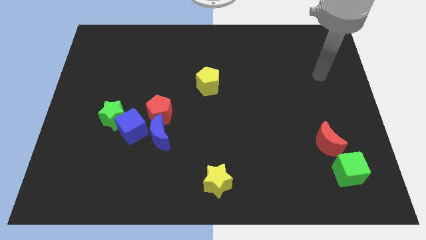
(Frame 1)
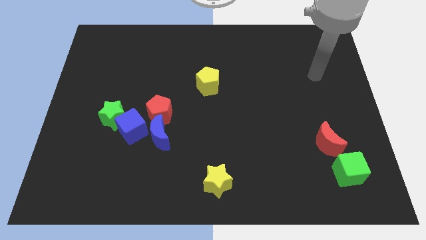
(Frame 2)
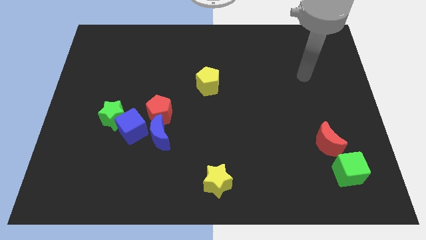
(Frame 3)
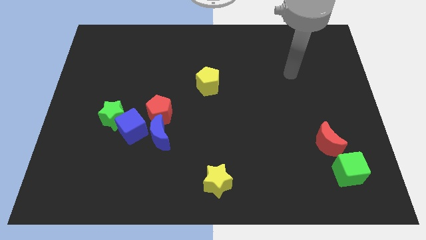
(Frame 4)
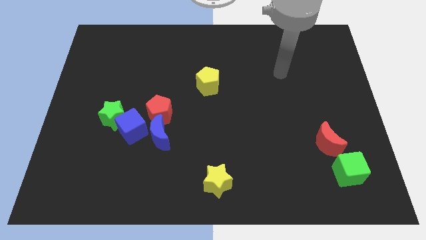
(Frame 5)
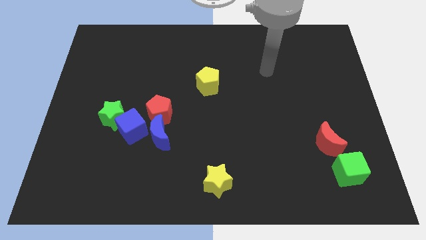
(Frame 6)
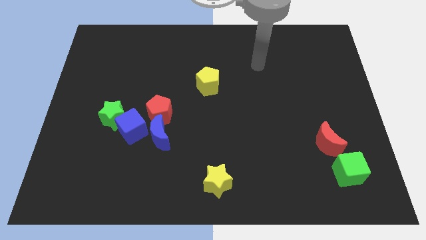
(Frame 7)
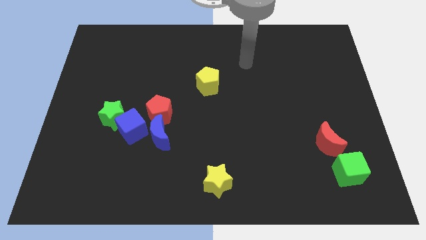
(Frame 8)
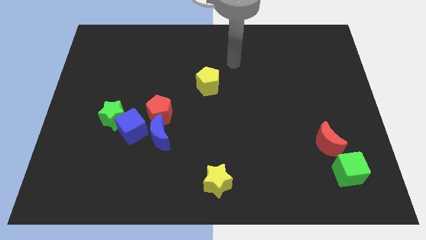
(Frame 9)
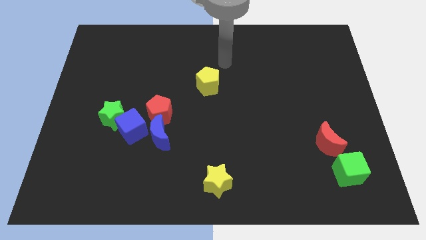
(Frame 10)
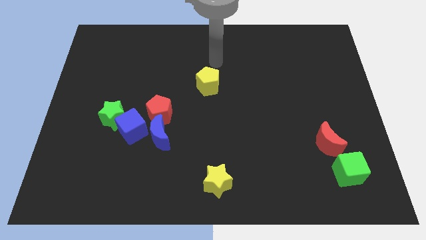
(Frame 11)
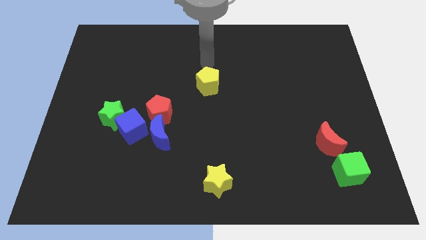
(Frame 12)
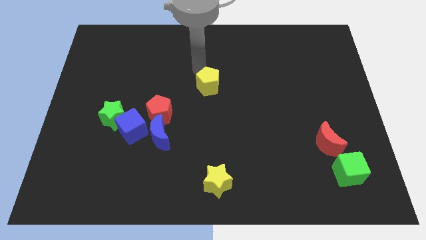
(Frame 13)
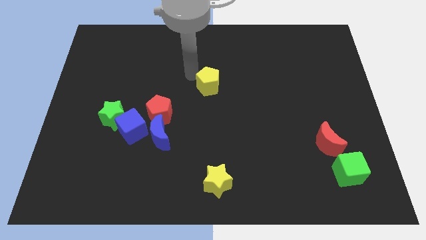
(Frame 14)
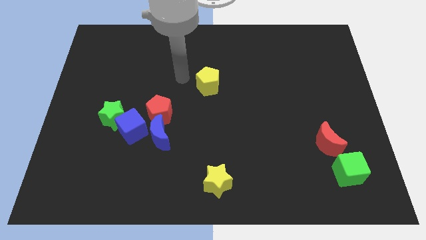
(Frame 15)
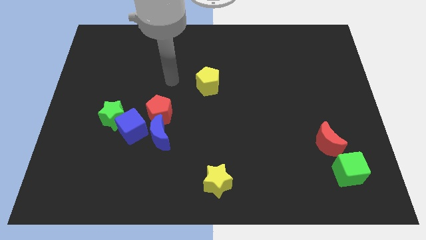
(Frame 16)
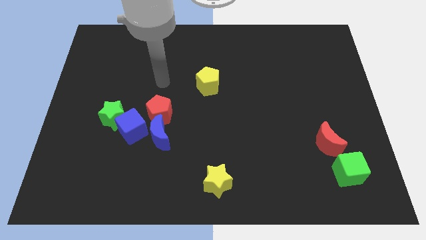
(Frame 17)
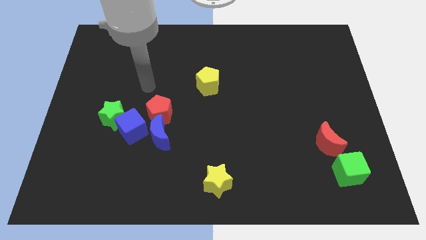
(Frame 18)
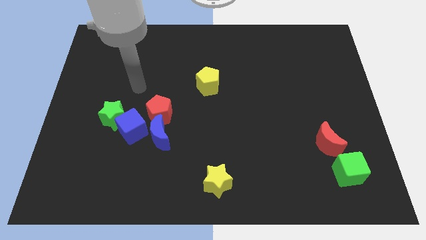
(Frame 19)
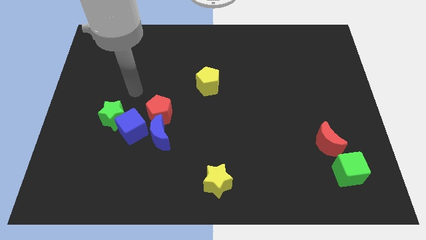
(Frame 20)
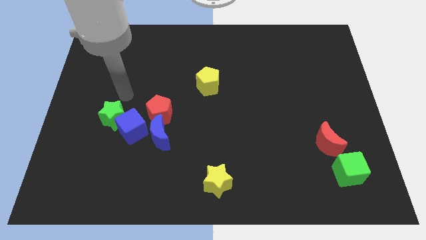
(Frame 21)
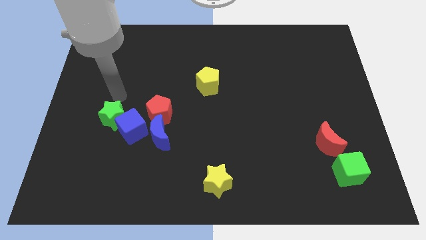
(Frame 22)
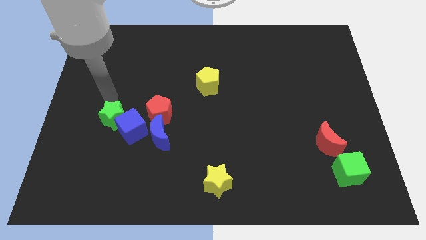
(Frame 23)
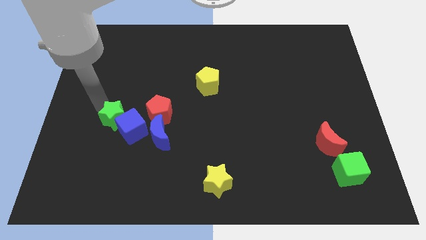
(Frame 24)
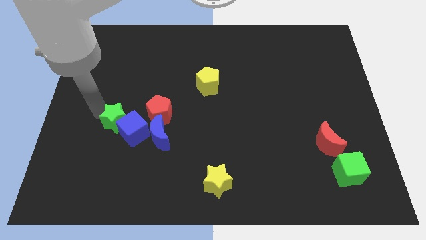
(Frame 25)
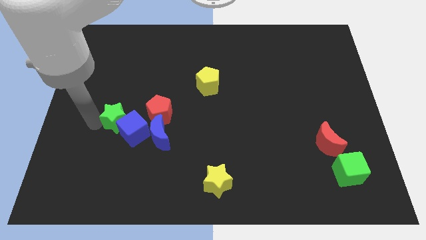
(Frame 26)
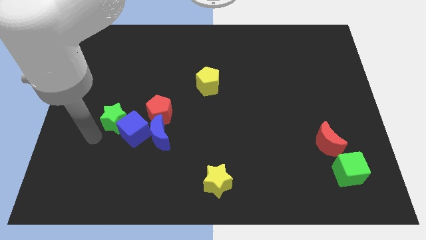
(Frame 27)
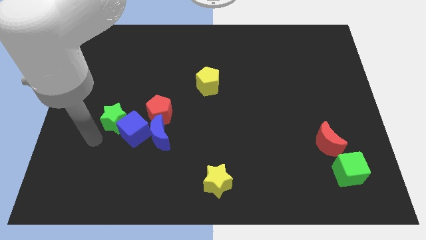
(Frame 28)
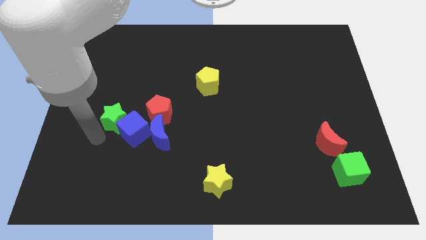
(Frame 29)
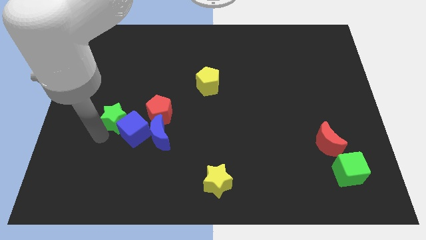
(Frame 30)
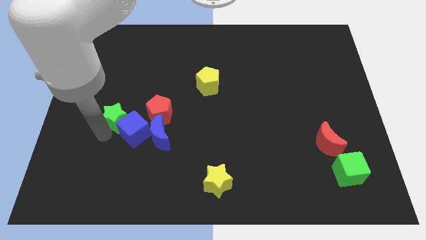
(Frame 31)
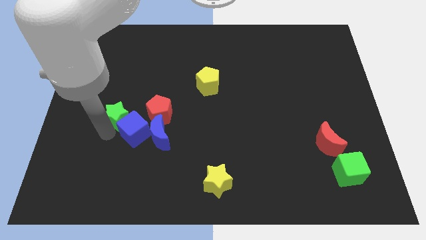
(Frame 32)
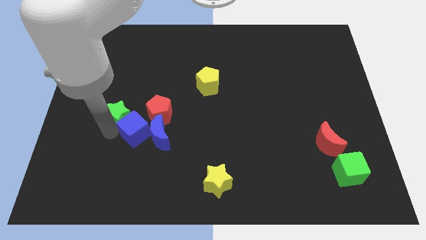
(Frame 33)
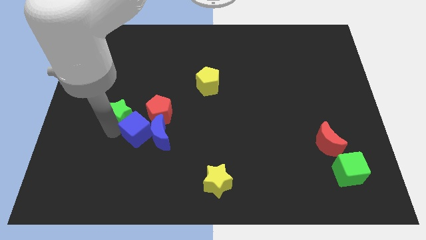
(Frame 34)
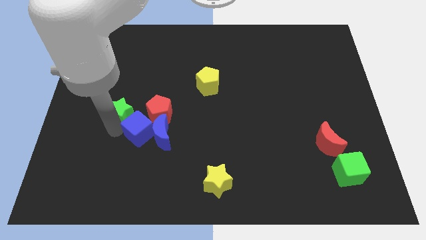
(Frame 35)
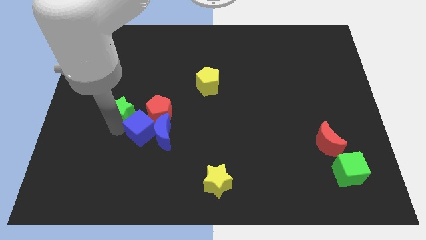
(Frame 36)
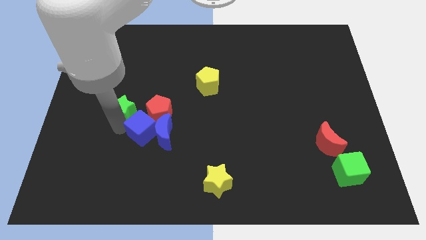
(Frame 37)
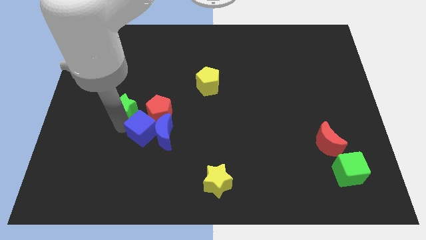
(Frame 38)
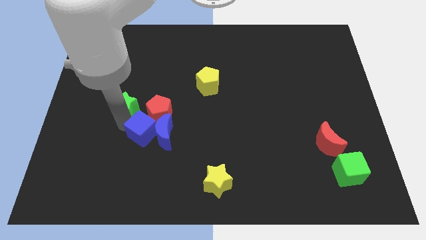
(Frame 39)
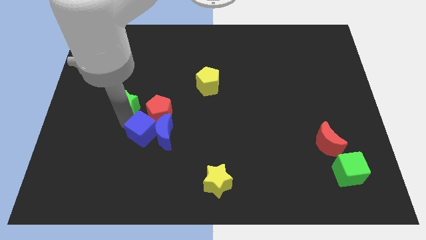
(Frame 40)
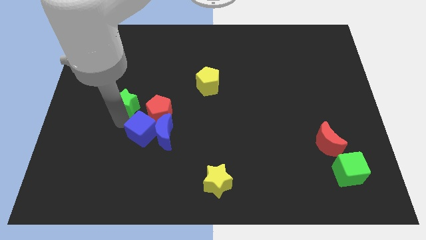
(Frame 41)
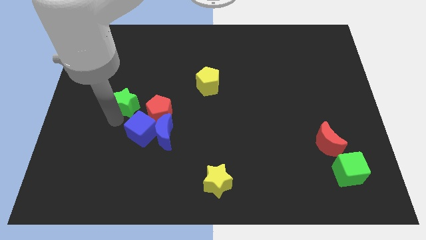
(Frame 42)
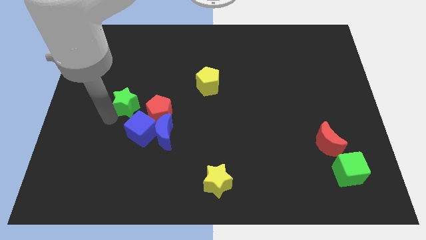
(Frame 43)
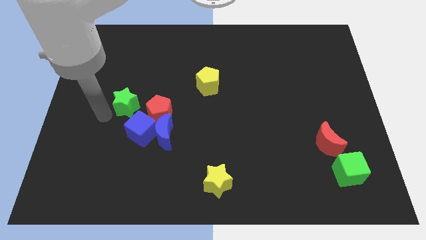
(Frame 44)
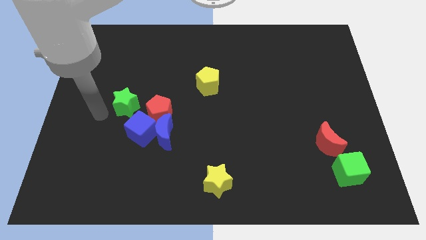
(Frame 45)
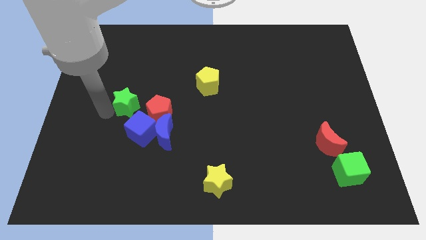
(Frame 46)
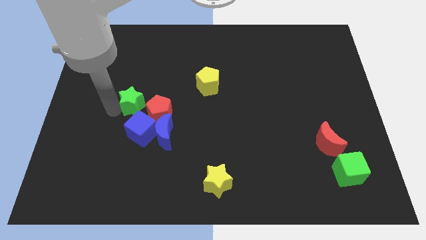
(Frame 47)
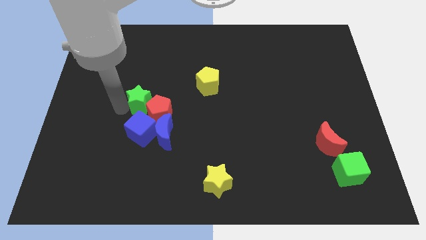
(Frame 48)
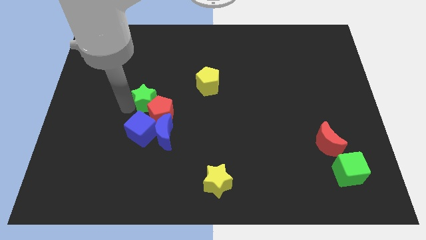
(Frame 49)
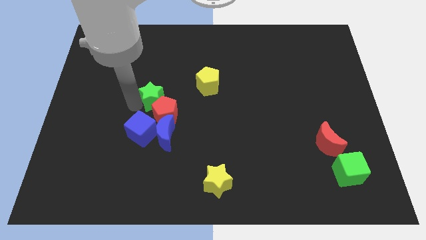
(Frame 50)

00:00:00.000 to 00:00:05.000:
slightly push the green star to the right

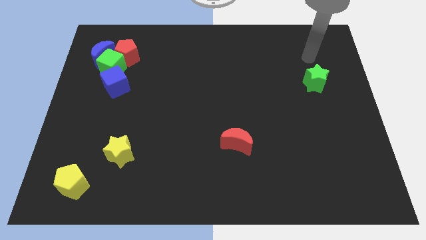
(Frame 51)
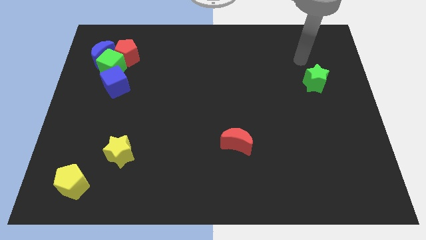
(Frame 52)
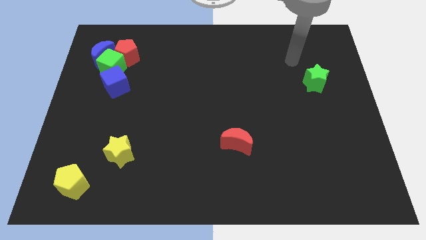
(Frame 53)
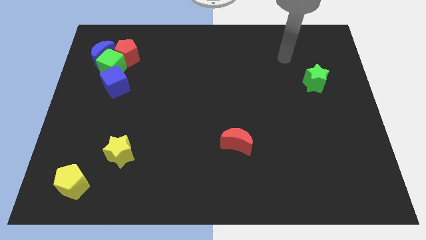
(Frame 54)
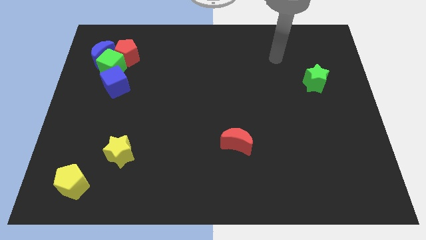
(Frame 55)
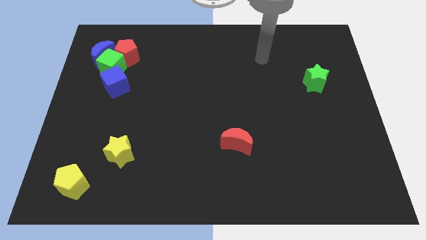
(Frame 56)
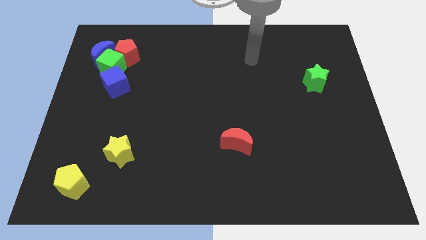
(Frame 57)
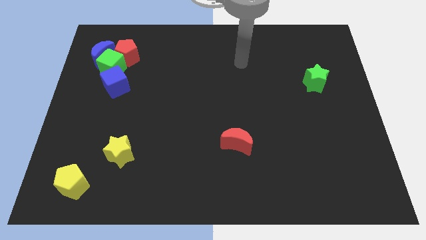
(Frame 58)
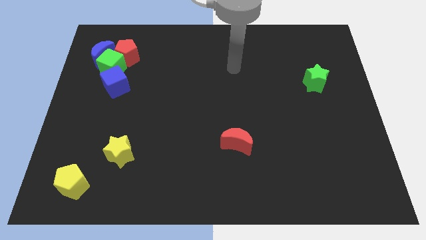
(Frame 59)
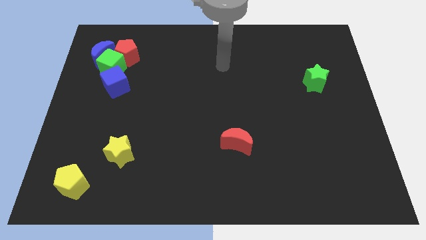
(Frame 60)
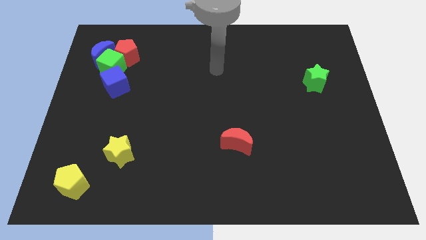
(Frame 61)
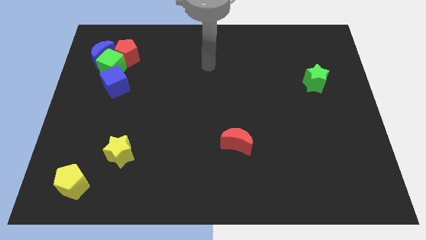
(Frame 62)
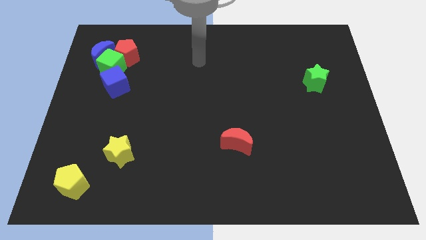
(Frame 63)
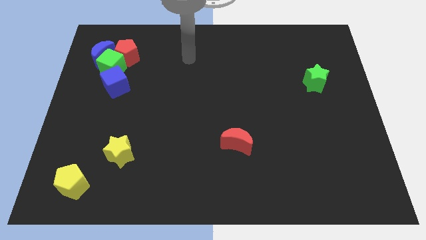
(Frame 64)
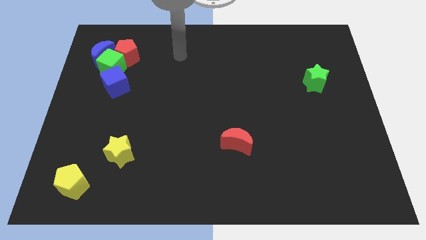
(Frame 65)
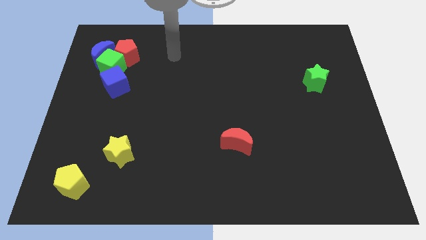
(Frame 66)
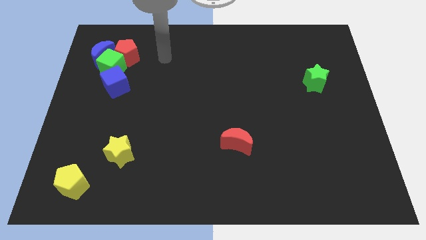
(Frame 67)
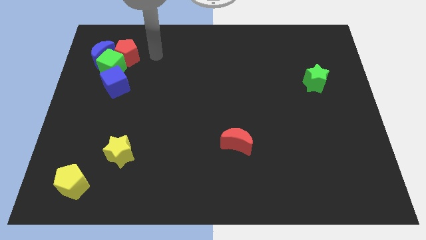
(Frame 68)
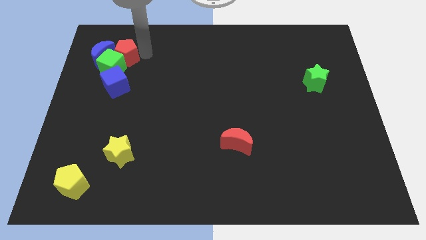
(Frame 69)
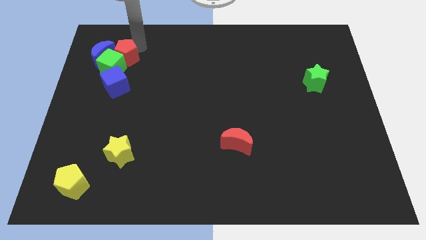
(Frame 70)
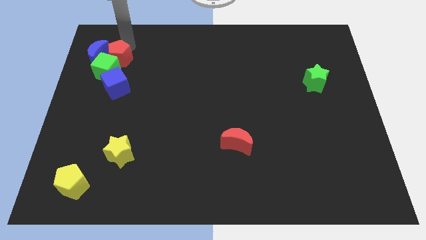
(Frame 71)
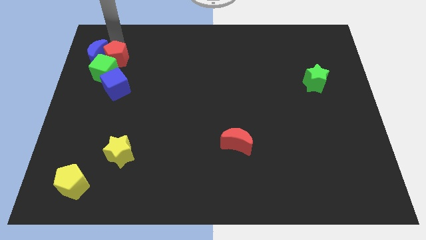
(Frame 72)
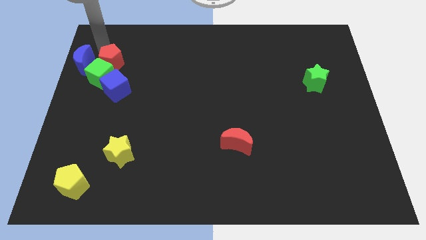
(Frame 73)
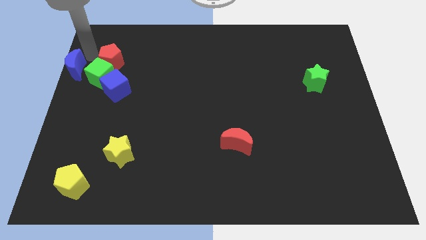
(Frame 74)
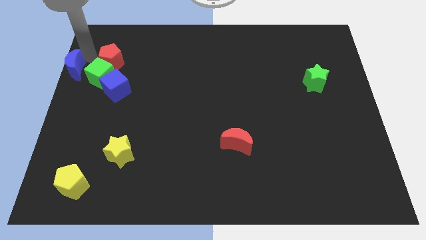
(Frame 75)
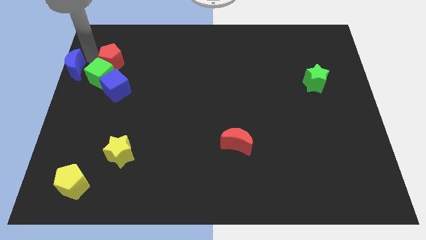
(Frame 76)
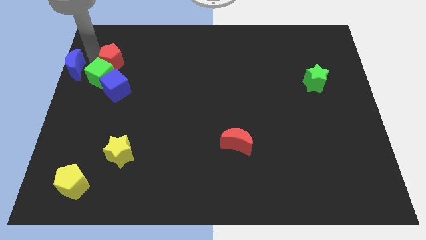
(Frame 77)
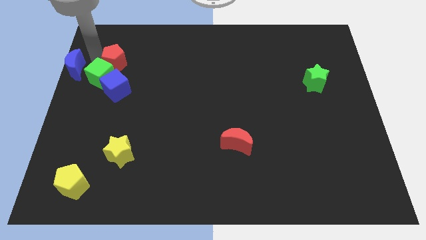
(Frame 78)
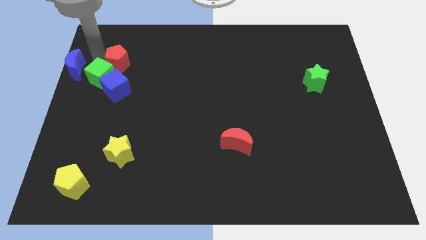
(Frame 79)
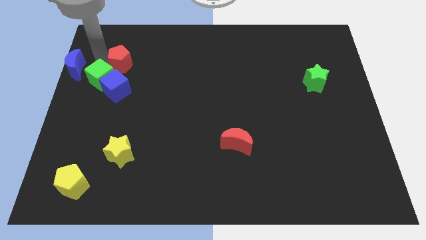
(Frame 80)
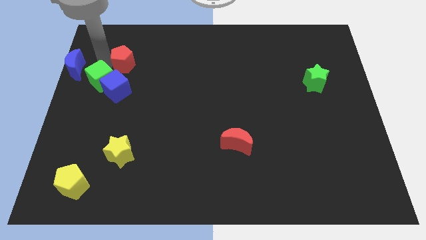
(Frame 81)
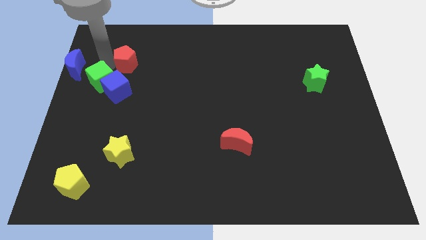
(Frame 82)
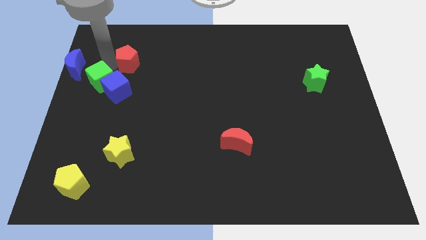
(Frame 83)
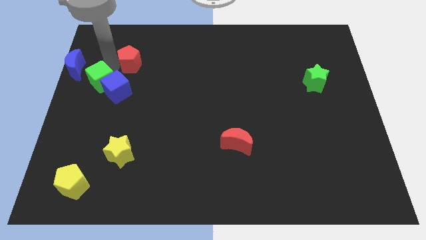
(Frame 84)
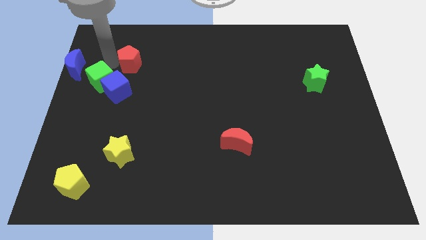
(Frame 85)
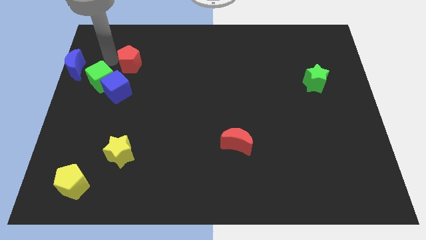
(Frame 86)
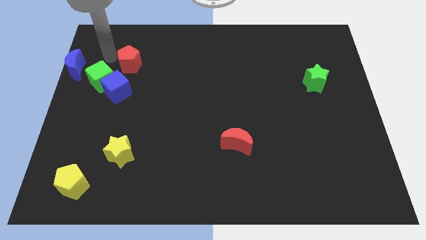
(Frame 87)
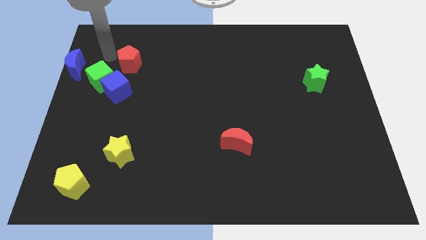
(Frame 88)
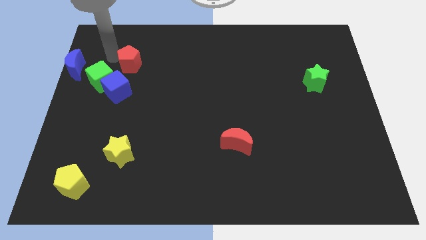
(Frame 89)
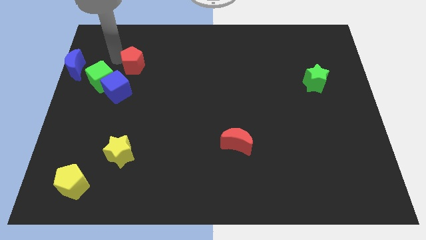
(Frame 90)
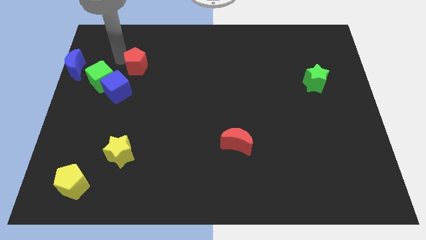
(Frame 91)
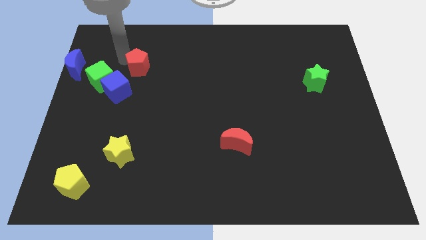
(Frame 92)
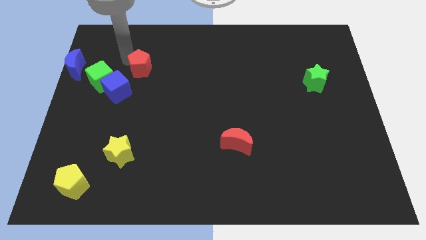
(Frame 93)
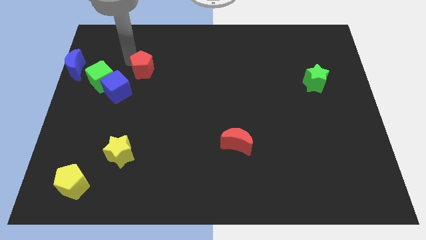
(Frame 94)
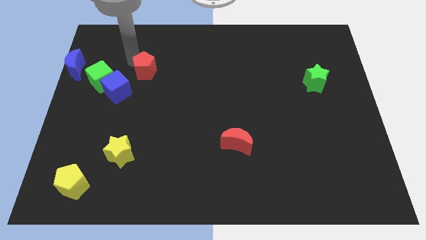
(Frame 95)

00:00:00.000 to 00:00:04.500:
slightly move the red pentagon downwards and to the right
